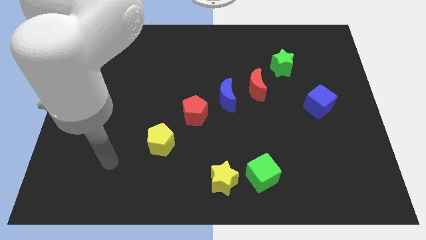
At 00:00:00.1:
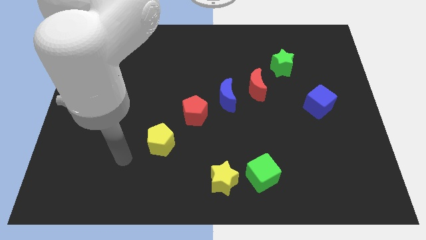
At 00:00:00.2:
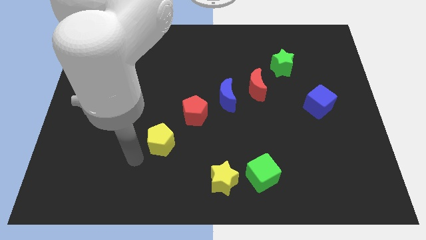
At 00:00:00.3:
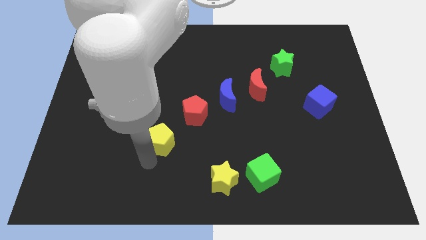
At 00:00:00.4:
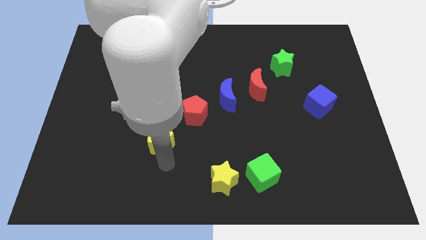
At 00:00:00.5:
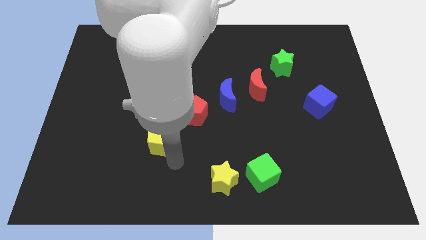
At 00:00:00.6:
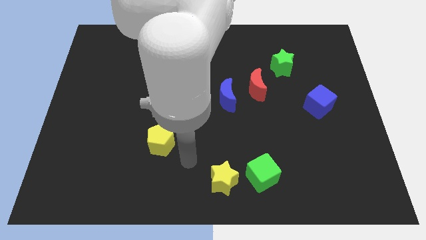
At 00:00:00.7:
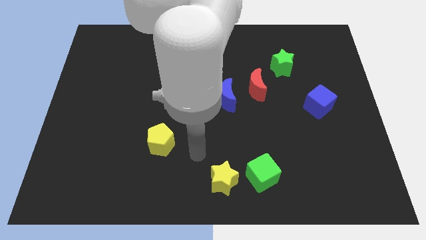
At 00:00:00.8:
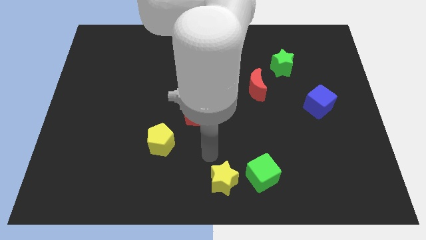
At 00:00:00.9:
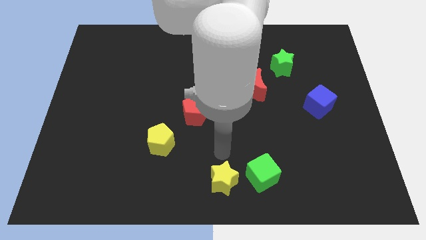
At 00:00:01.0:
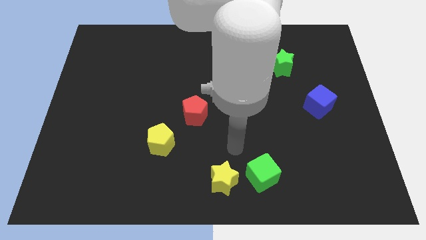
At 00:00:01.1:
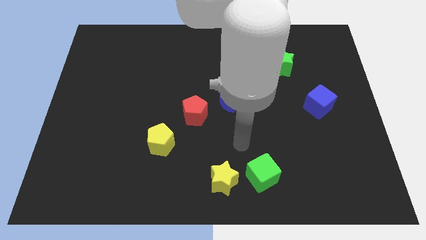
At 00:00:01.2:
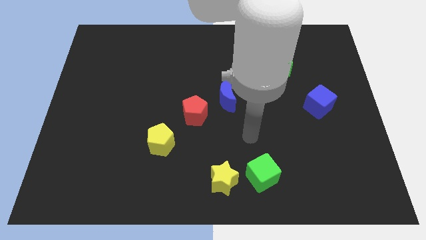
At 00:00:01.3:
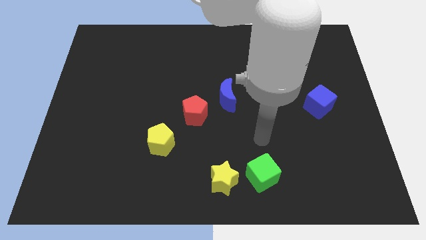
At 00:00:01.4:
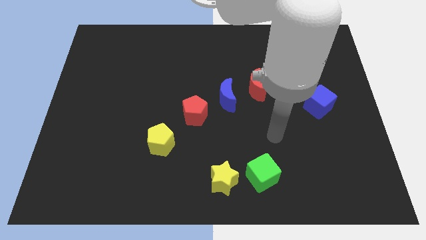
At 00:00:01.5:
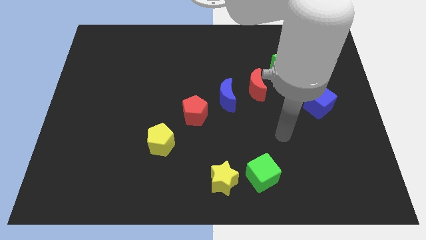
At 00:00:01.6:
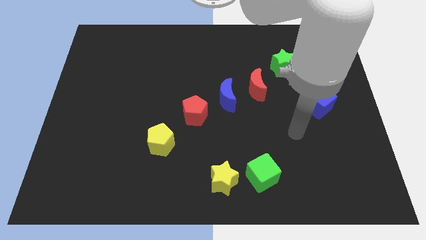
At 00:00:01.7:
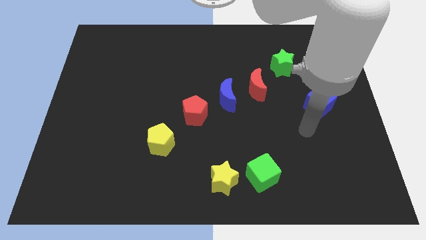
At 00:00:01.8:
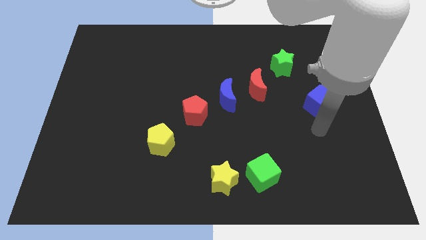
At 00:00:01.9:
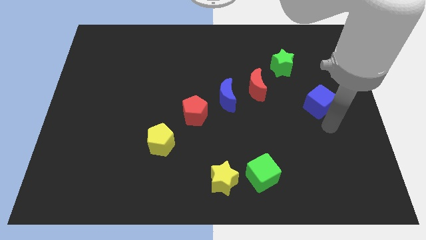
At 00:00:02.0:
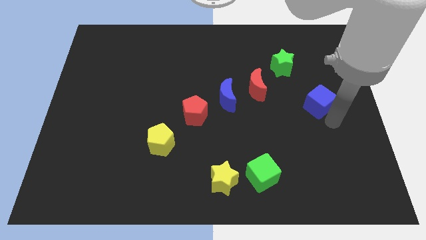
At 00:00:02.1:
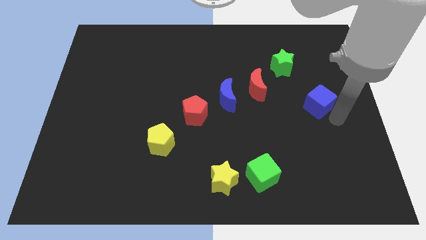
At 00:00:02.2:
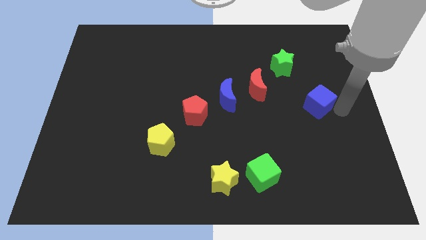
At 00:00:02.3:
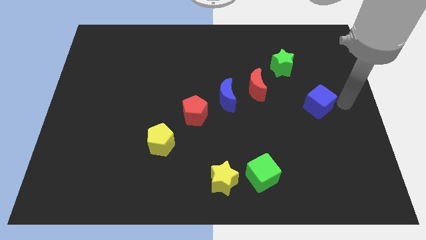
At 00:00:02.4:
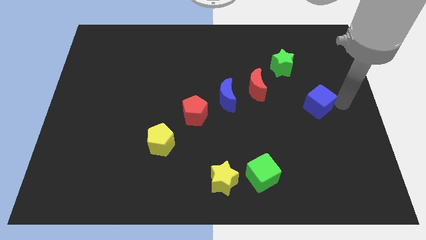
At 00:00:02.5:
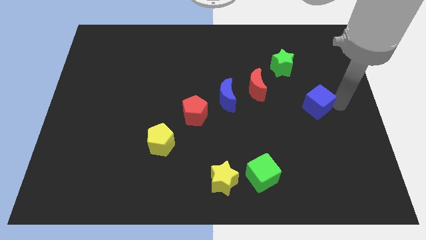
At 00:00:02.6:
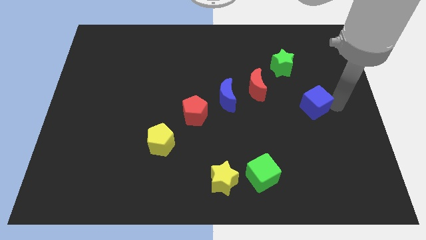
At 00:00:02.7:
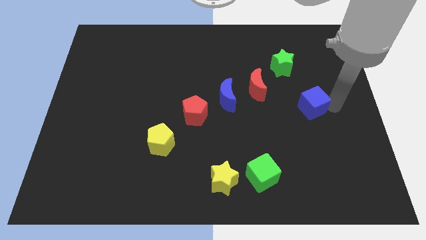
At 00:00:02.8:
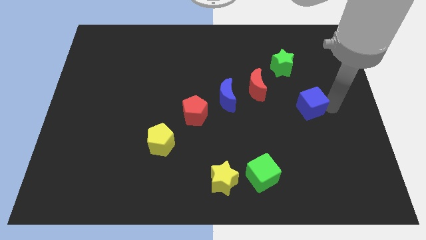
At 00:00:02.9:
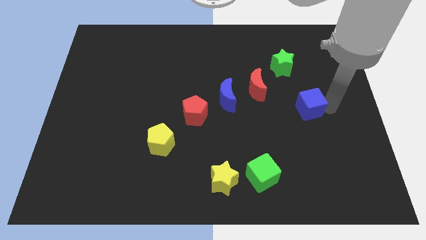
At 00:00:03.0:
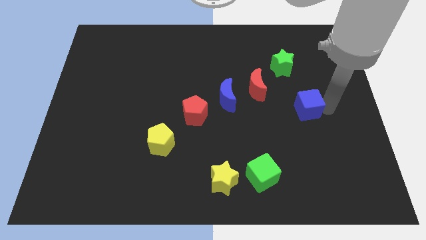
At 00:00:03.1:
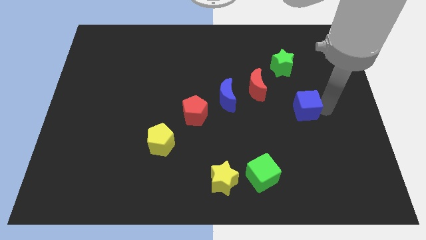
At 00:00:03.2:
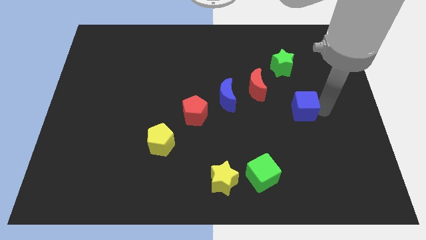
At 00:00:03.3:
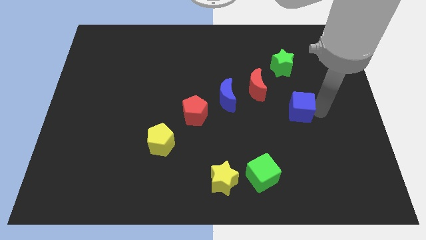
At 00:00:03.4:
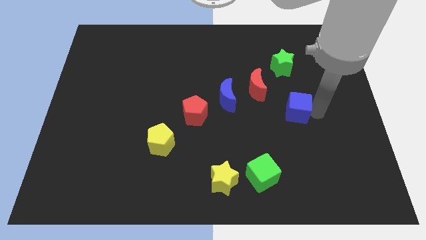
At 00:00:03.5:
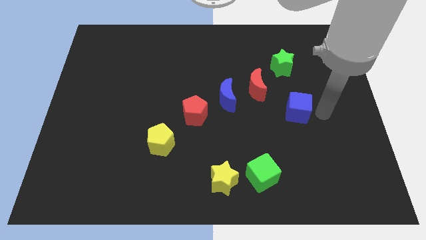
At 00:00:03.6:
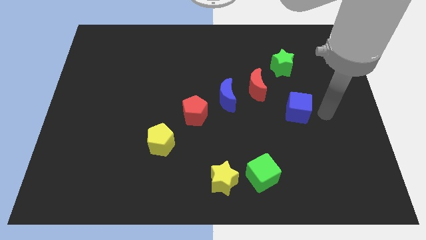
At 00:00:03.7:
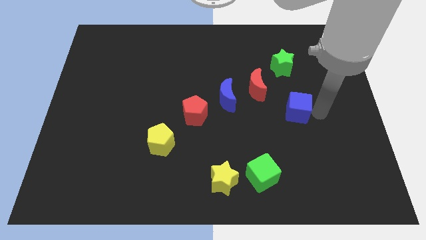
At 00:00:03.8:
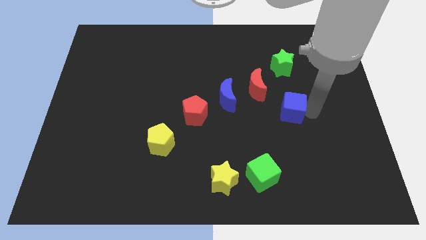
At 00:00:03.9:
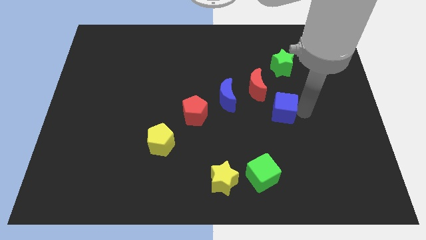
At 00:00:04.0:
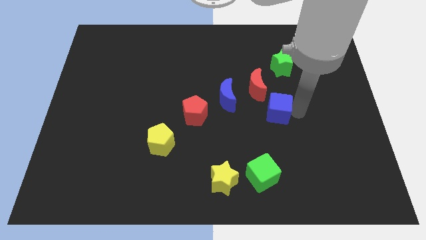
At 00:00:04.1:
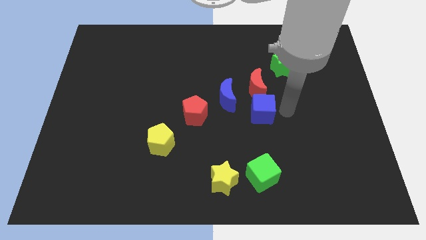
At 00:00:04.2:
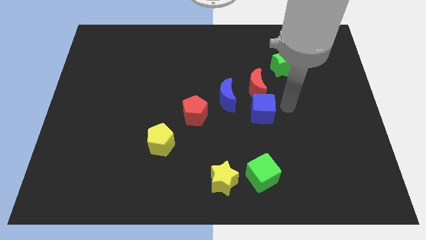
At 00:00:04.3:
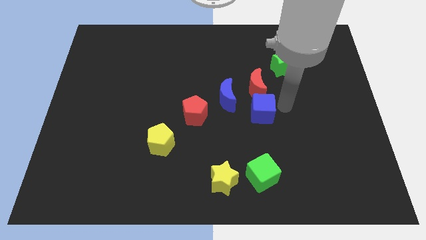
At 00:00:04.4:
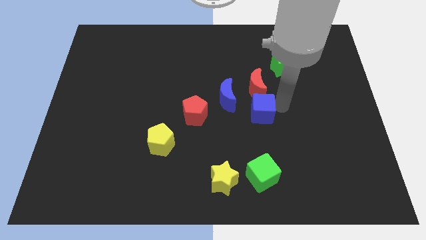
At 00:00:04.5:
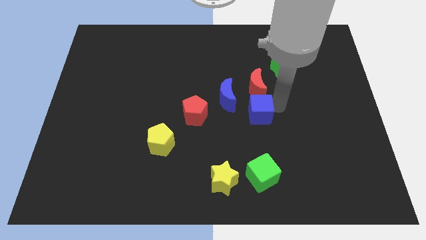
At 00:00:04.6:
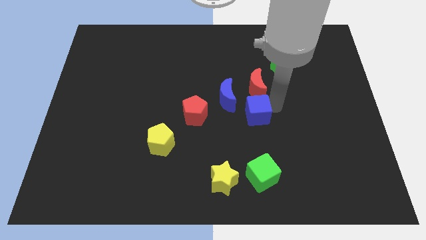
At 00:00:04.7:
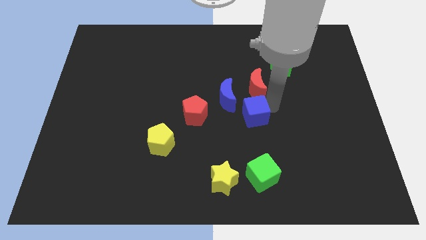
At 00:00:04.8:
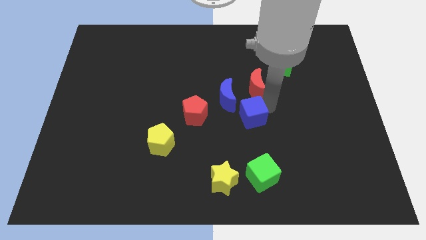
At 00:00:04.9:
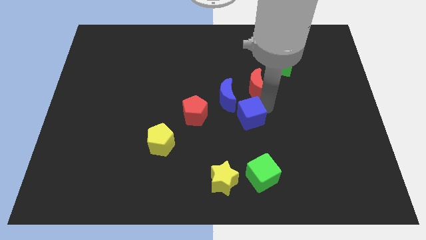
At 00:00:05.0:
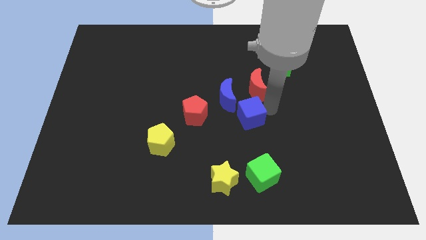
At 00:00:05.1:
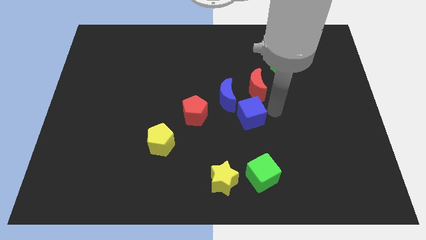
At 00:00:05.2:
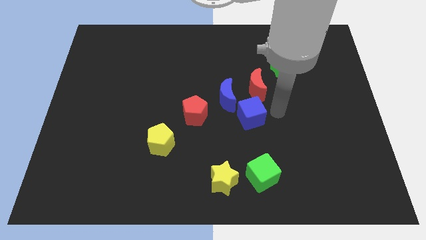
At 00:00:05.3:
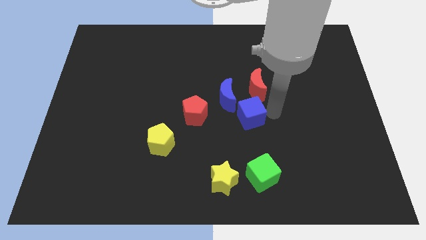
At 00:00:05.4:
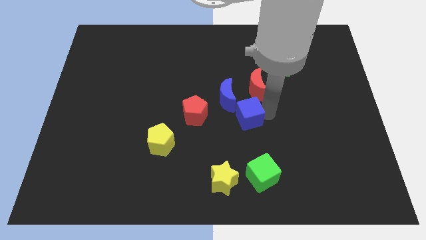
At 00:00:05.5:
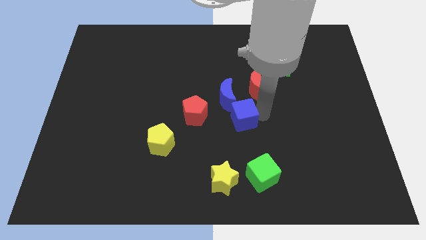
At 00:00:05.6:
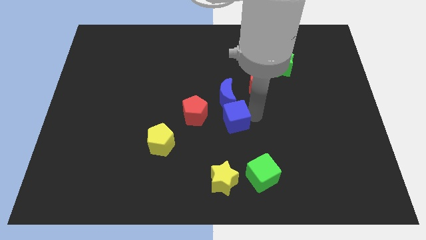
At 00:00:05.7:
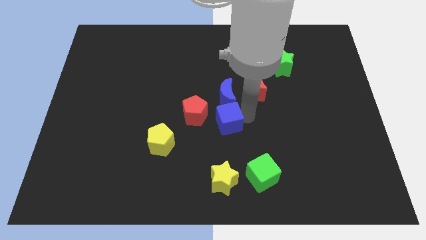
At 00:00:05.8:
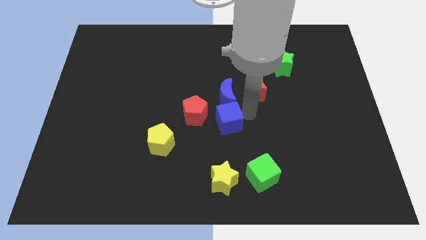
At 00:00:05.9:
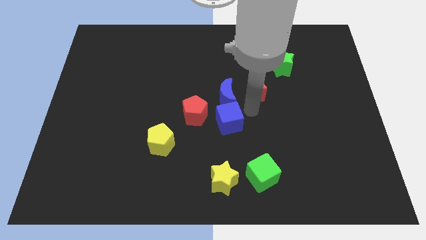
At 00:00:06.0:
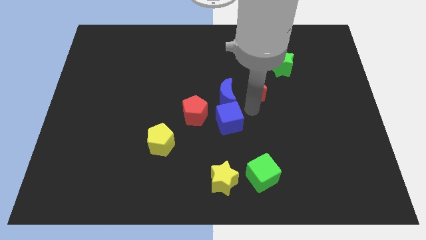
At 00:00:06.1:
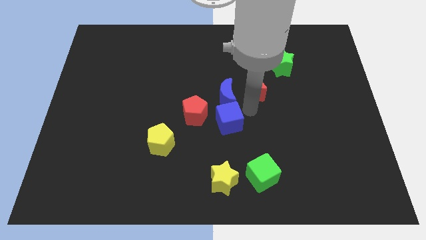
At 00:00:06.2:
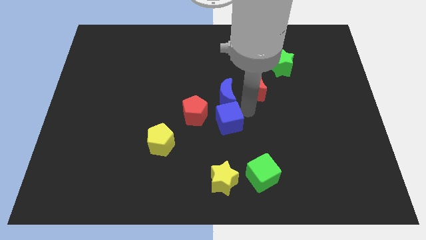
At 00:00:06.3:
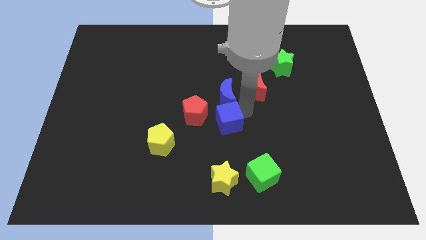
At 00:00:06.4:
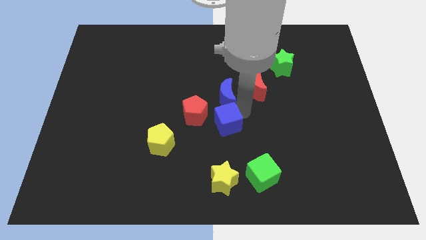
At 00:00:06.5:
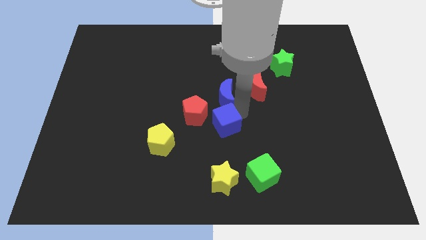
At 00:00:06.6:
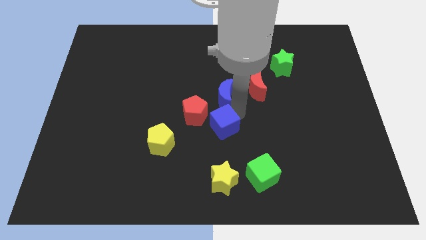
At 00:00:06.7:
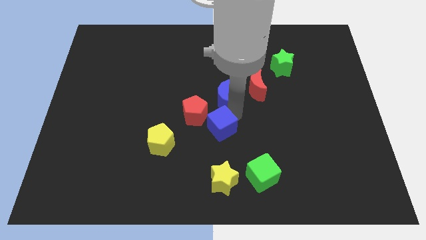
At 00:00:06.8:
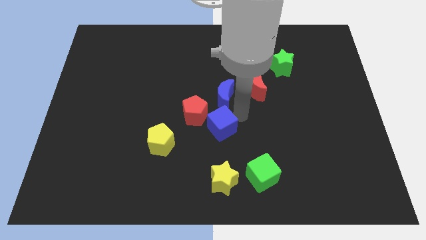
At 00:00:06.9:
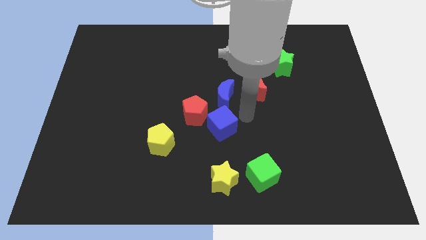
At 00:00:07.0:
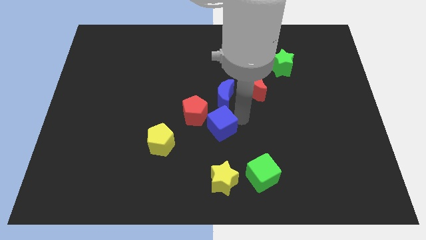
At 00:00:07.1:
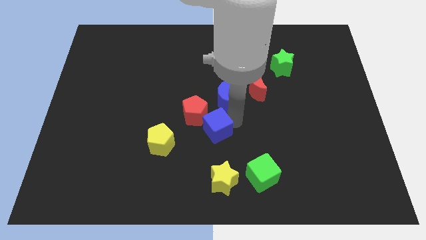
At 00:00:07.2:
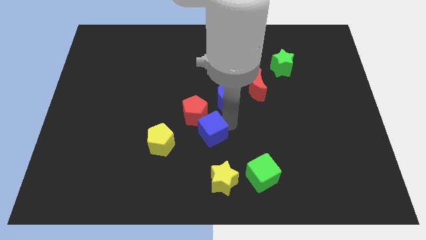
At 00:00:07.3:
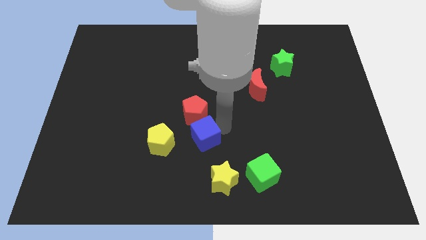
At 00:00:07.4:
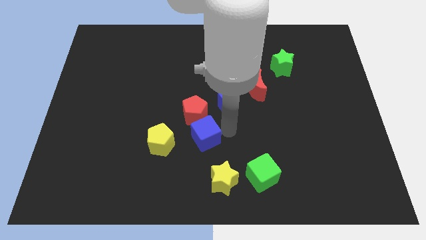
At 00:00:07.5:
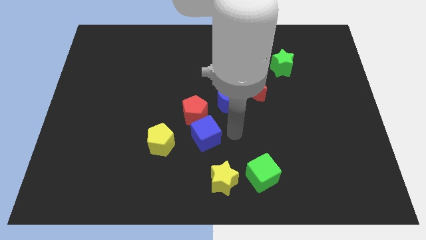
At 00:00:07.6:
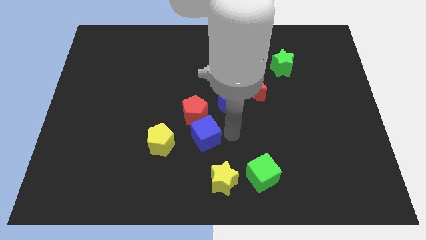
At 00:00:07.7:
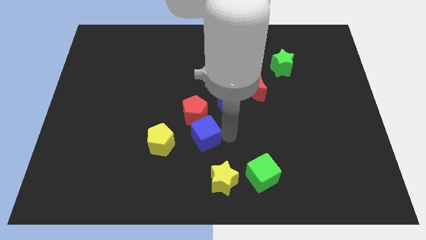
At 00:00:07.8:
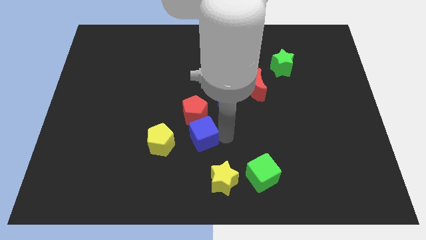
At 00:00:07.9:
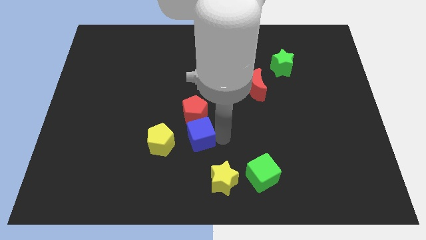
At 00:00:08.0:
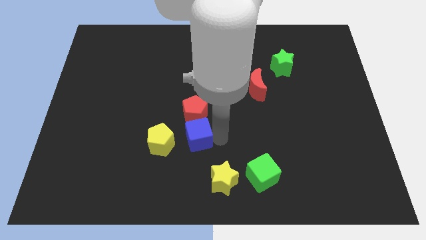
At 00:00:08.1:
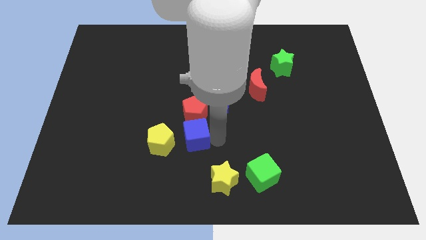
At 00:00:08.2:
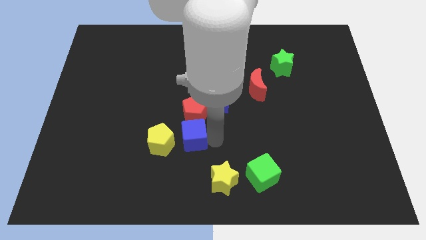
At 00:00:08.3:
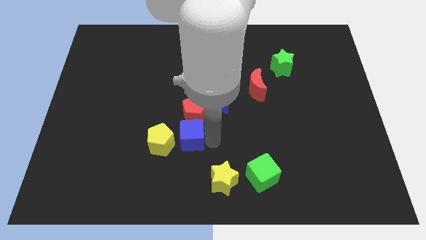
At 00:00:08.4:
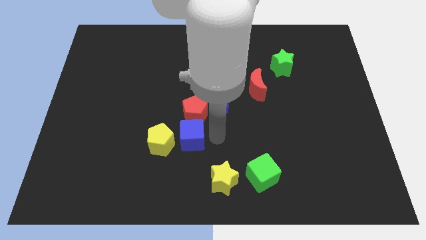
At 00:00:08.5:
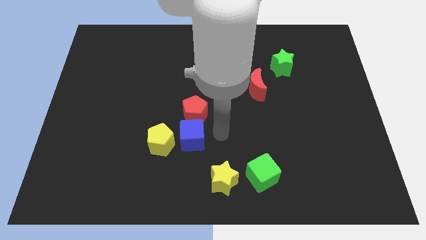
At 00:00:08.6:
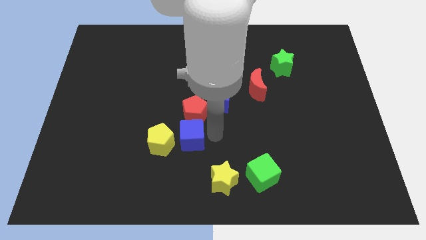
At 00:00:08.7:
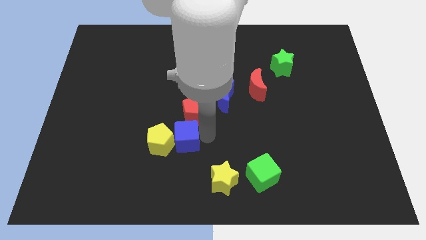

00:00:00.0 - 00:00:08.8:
slide the blue cube next to the yellow pentagon
